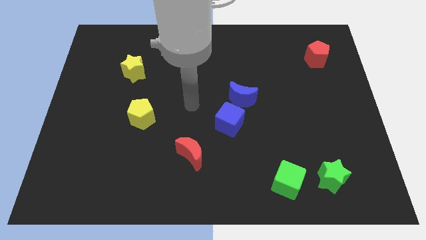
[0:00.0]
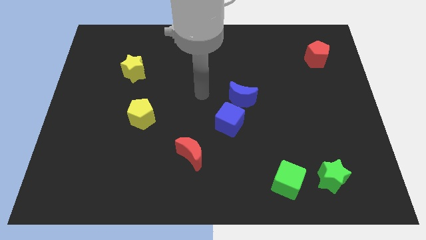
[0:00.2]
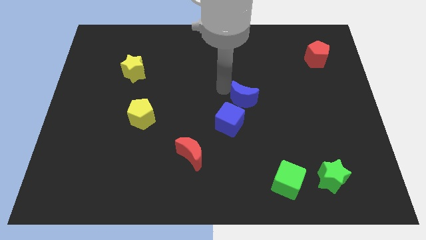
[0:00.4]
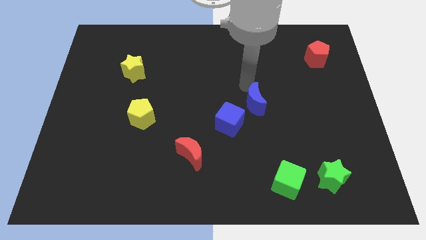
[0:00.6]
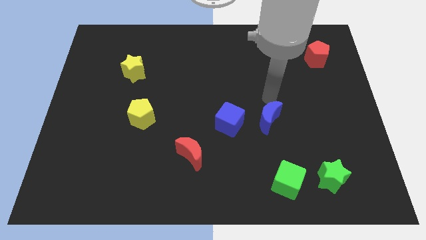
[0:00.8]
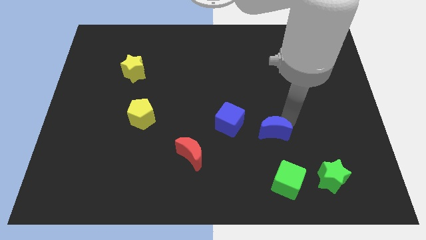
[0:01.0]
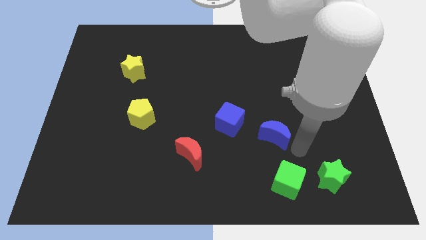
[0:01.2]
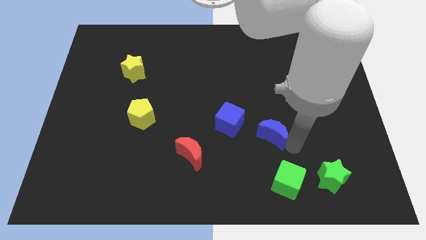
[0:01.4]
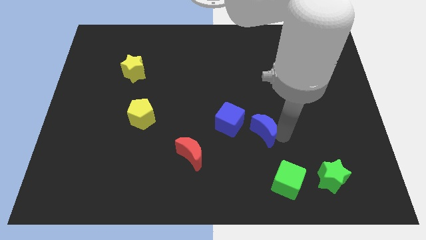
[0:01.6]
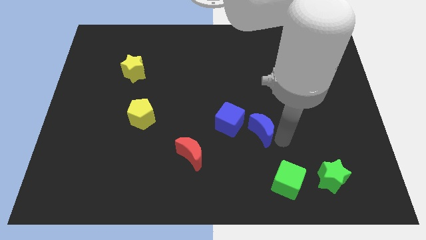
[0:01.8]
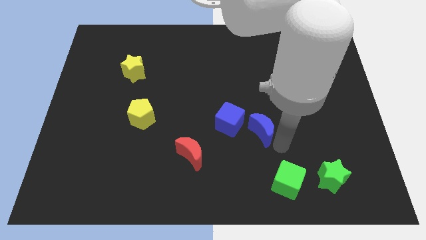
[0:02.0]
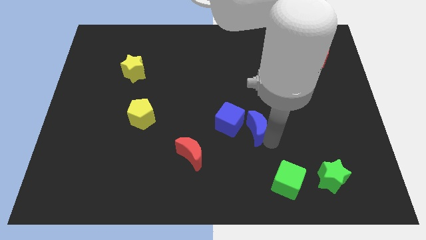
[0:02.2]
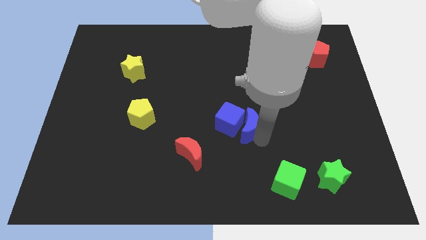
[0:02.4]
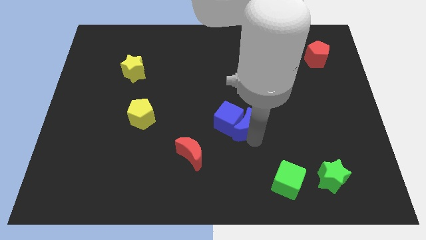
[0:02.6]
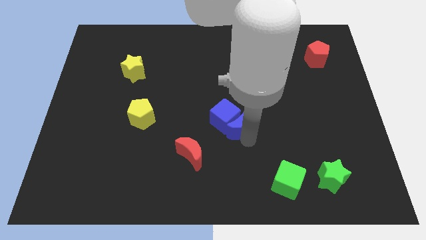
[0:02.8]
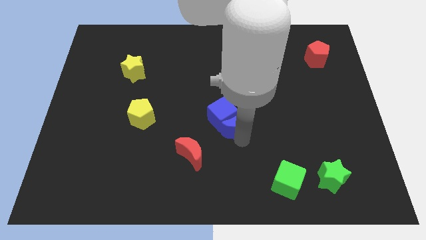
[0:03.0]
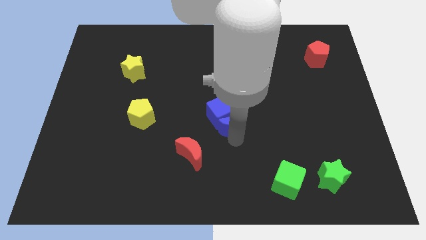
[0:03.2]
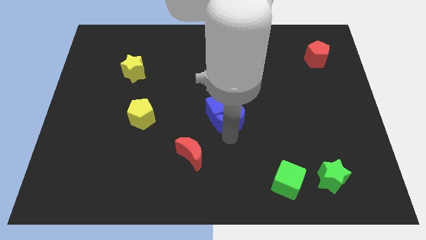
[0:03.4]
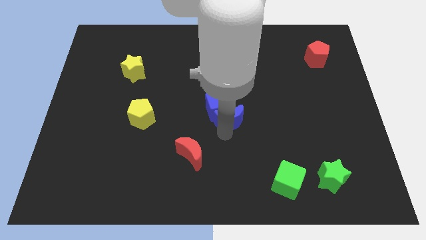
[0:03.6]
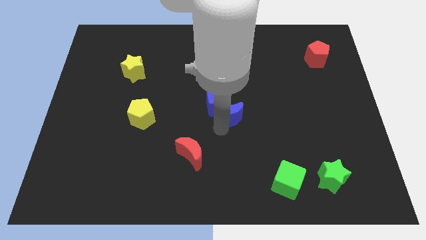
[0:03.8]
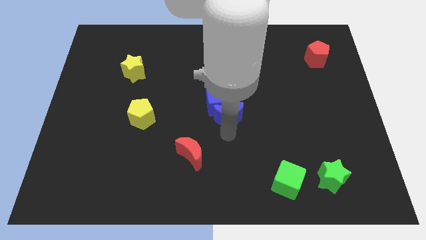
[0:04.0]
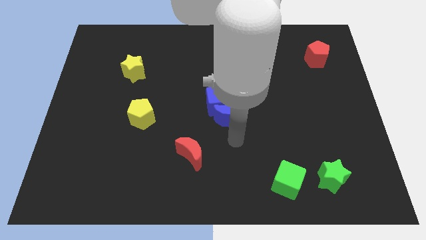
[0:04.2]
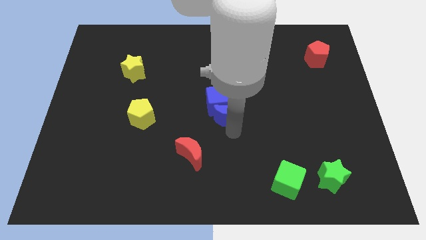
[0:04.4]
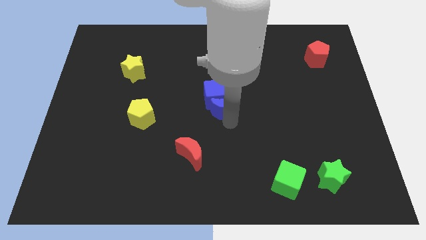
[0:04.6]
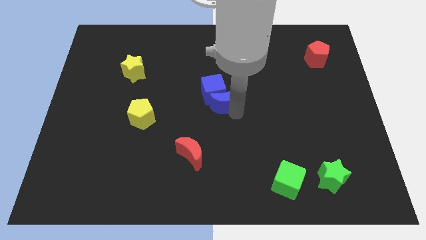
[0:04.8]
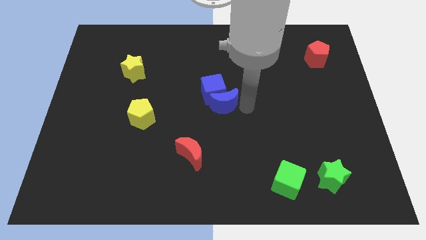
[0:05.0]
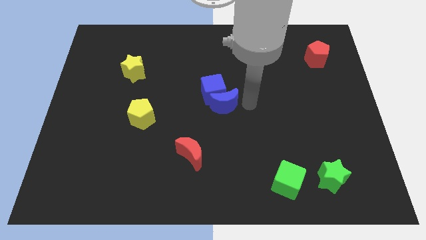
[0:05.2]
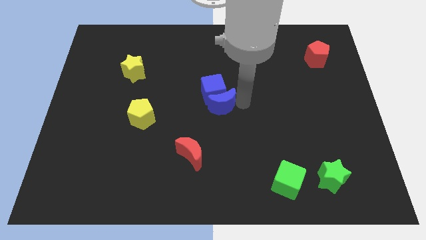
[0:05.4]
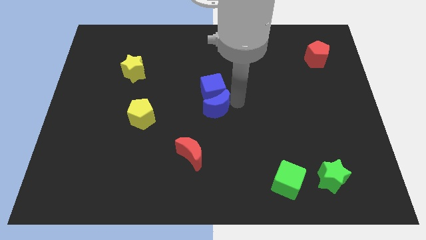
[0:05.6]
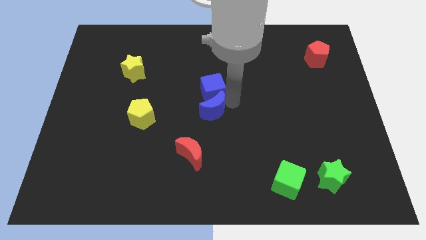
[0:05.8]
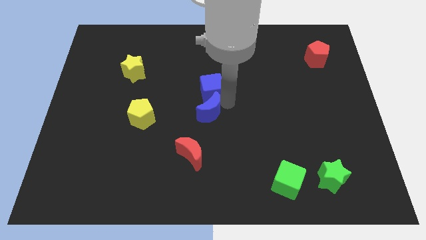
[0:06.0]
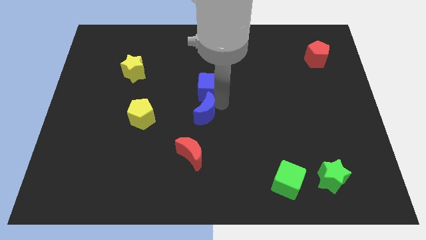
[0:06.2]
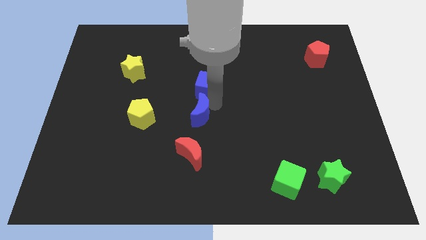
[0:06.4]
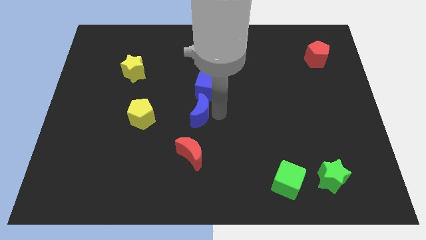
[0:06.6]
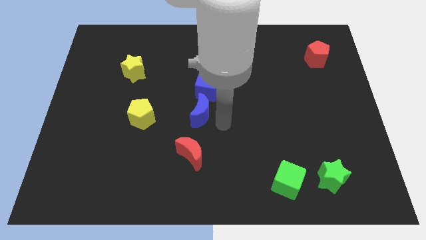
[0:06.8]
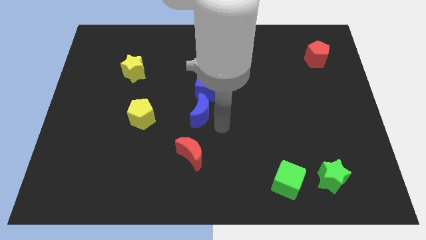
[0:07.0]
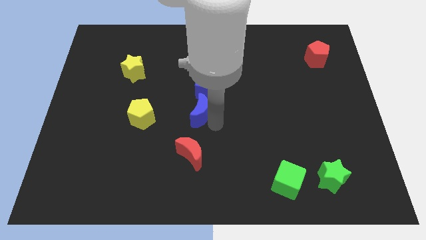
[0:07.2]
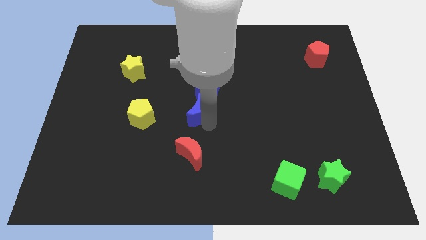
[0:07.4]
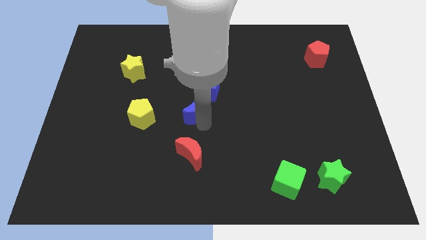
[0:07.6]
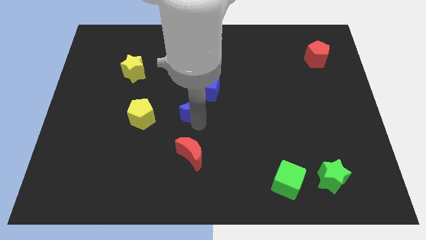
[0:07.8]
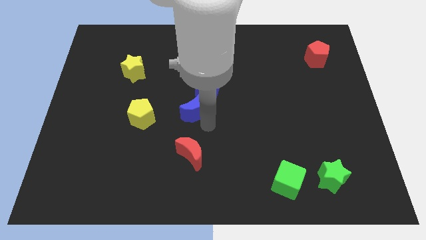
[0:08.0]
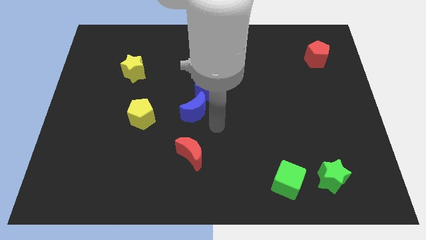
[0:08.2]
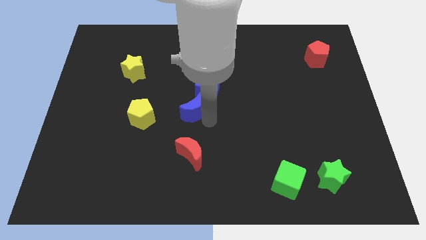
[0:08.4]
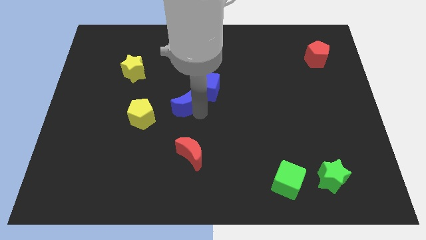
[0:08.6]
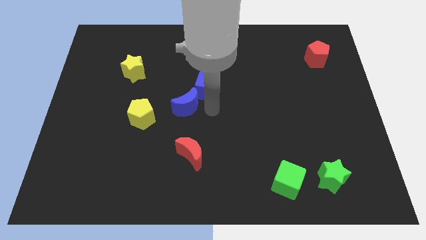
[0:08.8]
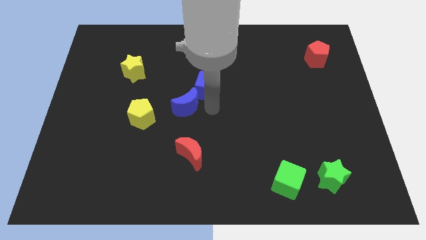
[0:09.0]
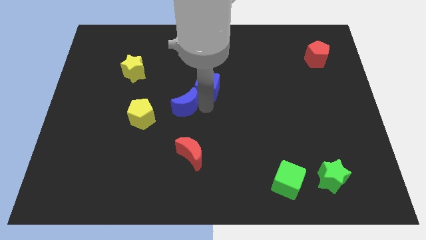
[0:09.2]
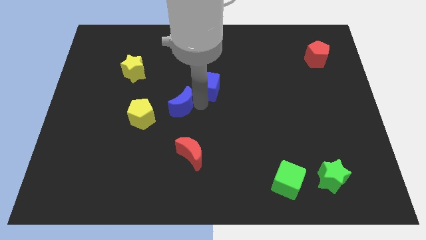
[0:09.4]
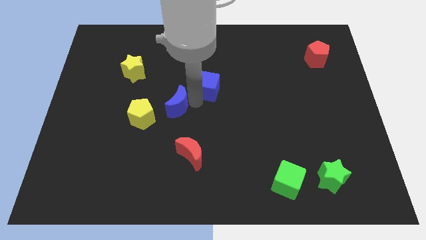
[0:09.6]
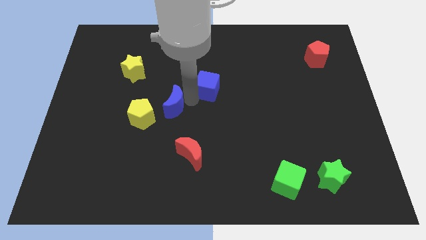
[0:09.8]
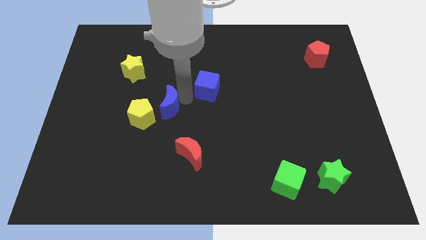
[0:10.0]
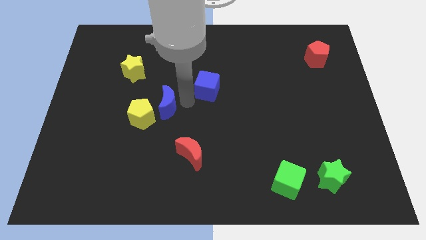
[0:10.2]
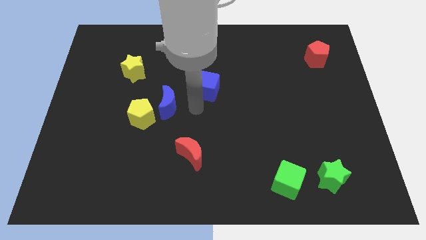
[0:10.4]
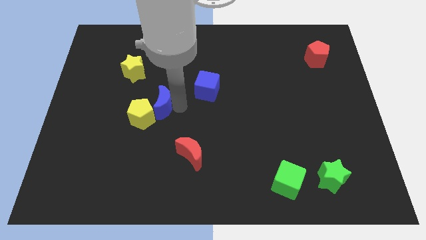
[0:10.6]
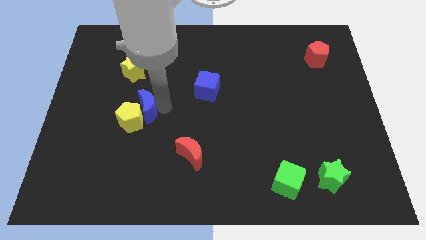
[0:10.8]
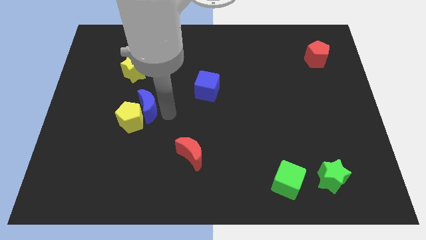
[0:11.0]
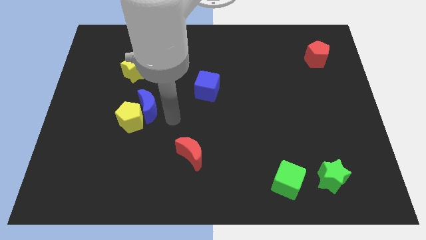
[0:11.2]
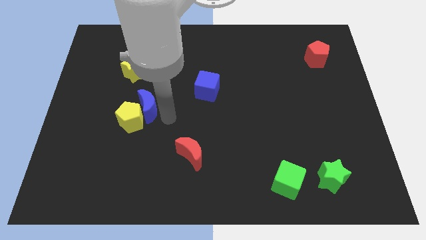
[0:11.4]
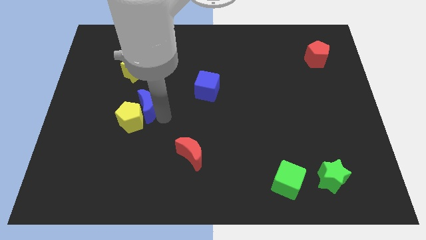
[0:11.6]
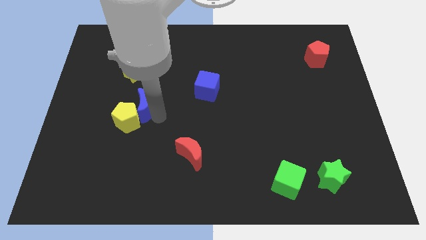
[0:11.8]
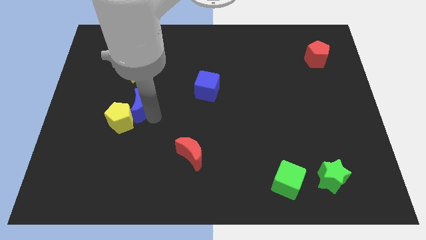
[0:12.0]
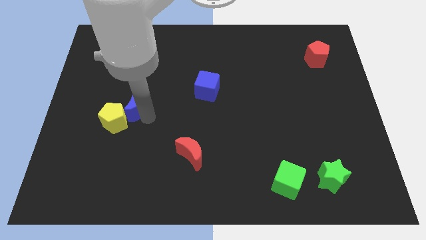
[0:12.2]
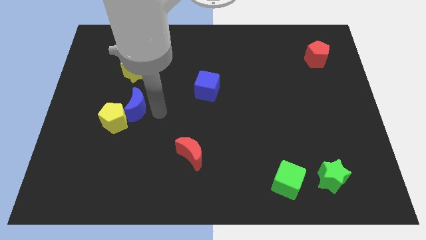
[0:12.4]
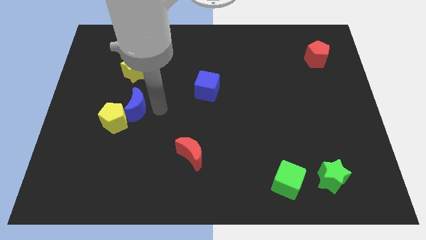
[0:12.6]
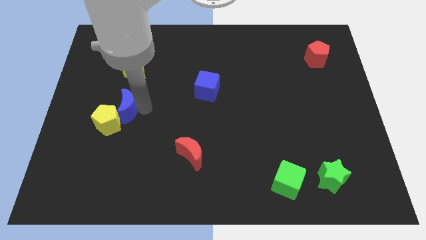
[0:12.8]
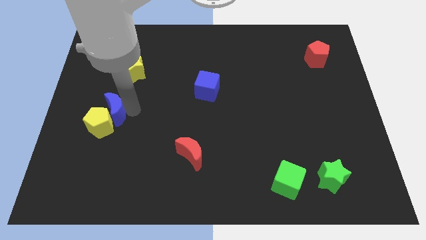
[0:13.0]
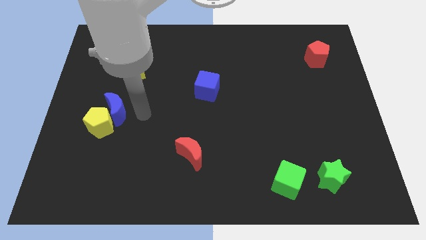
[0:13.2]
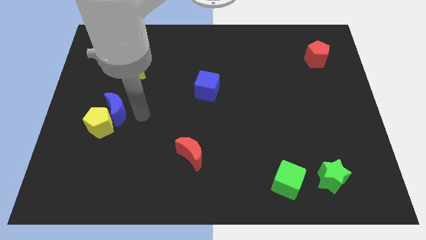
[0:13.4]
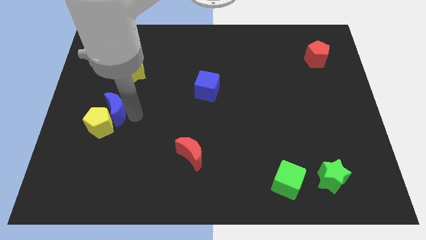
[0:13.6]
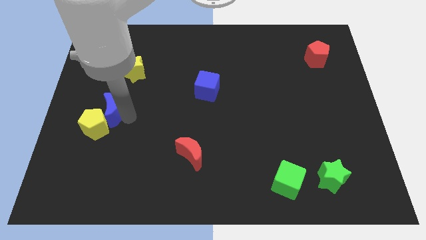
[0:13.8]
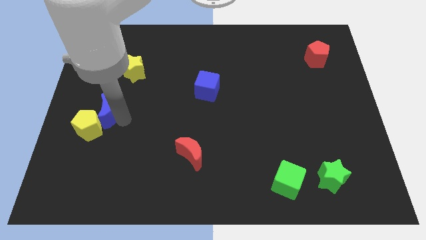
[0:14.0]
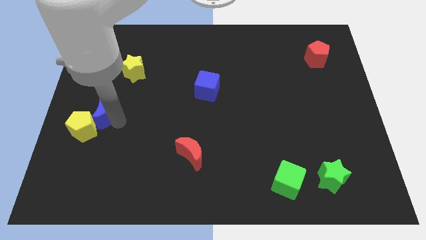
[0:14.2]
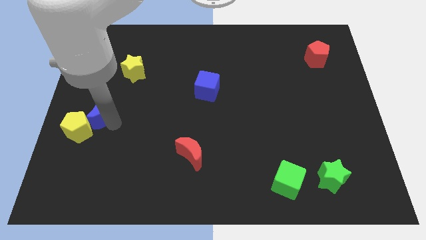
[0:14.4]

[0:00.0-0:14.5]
put the blue moon to the left side of the board
